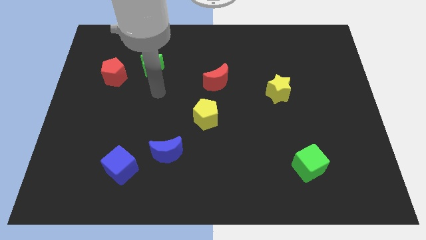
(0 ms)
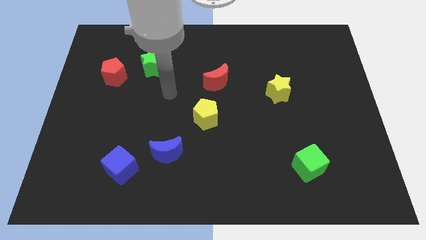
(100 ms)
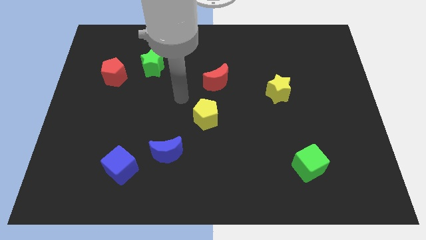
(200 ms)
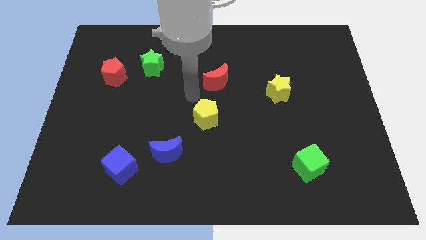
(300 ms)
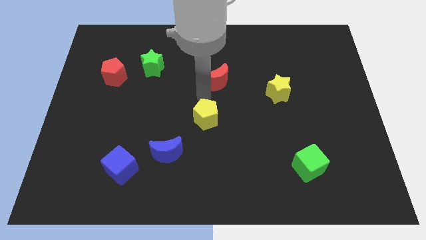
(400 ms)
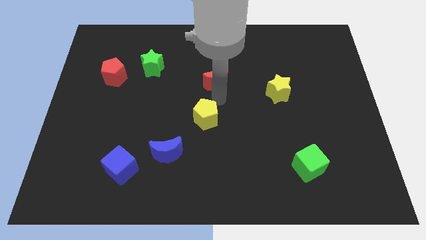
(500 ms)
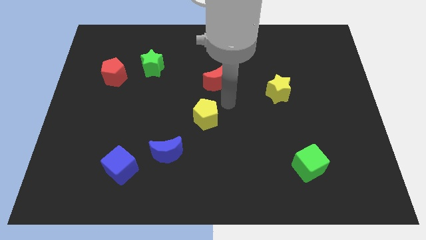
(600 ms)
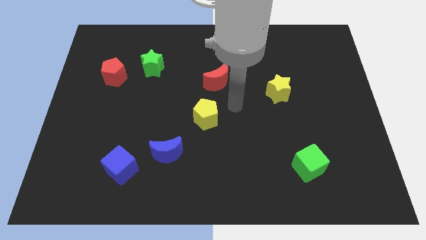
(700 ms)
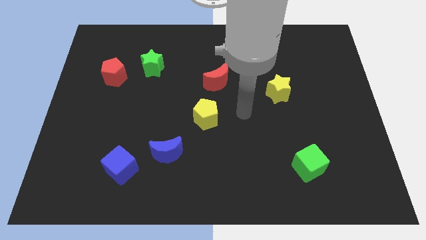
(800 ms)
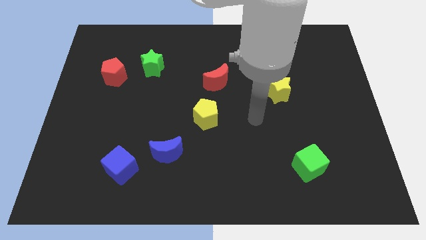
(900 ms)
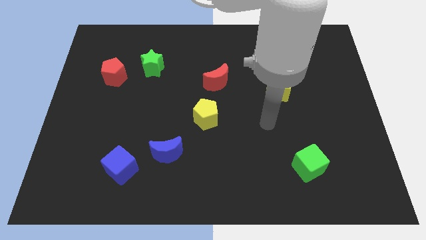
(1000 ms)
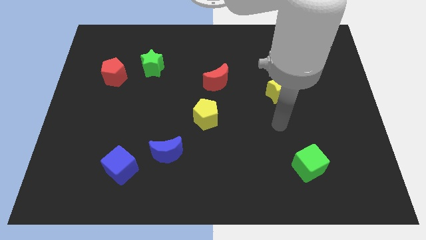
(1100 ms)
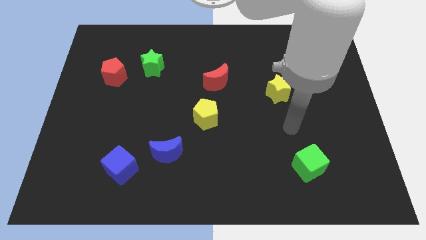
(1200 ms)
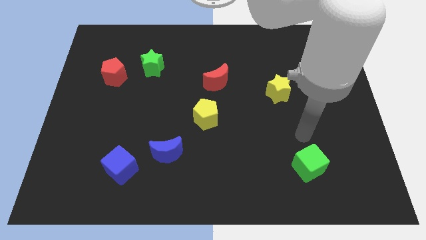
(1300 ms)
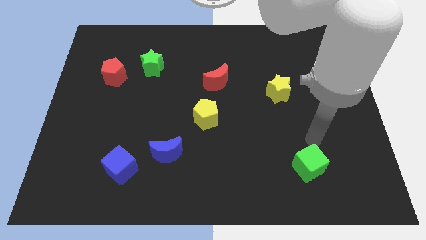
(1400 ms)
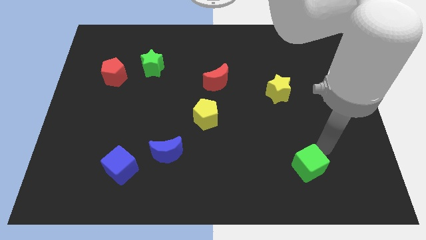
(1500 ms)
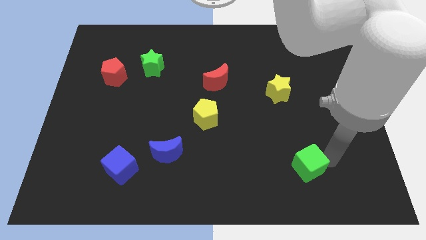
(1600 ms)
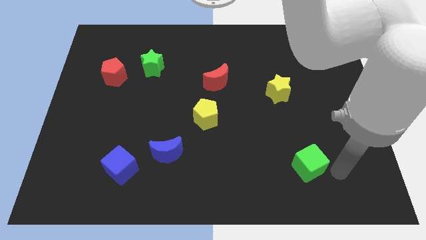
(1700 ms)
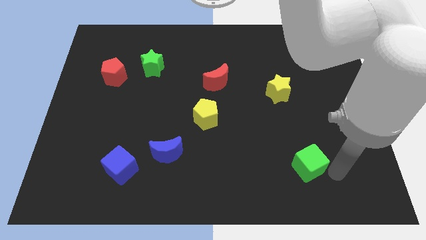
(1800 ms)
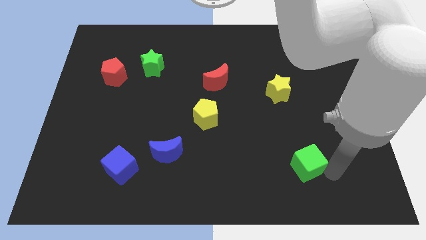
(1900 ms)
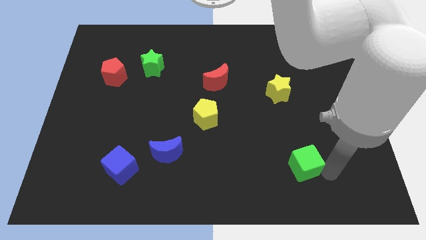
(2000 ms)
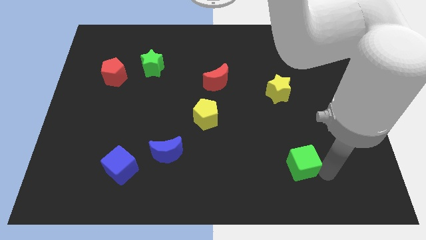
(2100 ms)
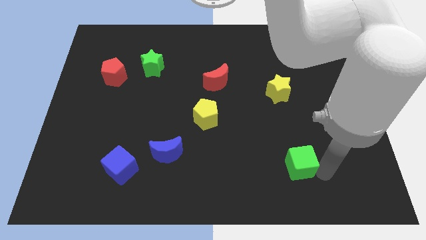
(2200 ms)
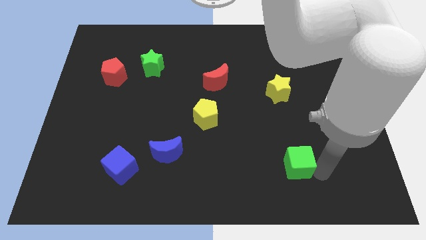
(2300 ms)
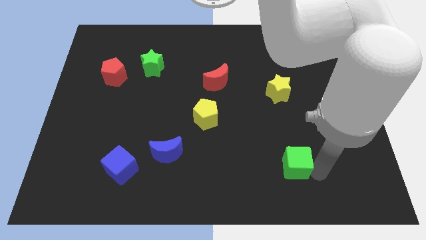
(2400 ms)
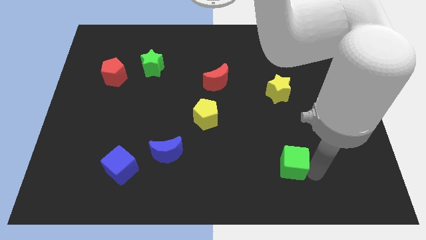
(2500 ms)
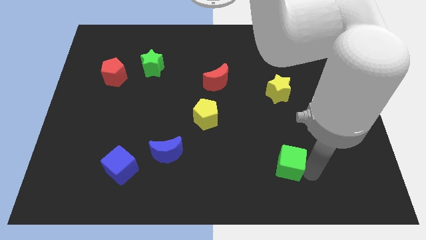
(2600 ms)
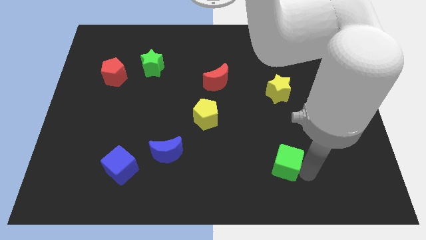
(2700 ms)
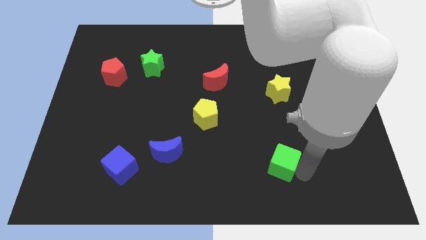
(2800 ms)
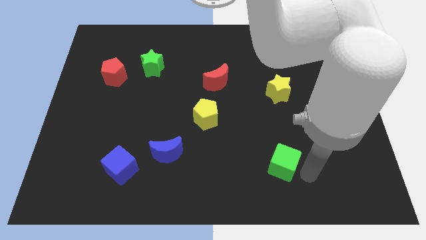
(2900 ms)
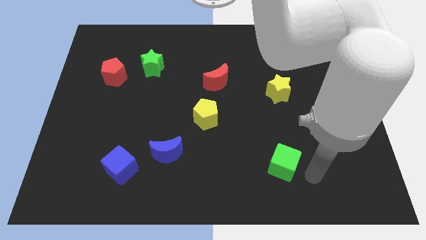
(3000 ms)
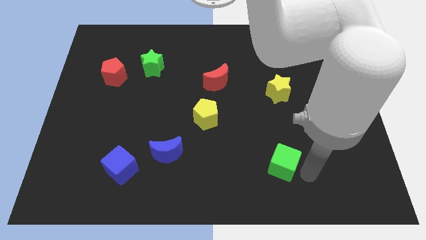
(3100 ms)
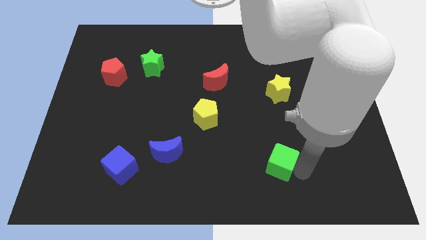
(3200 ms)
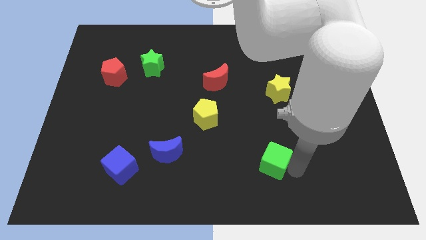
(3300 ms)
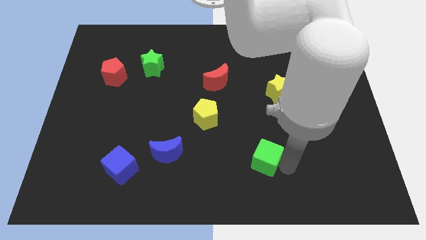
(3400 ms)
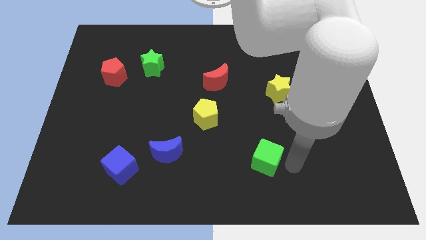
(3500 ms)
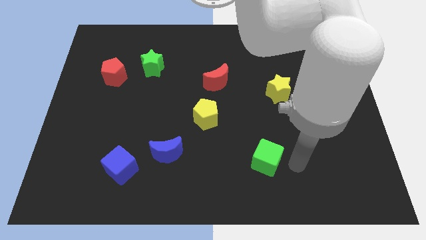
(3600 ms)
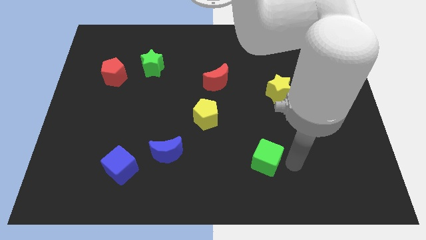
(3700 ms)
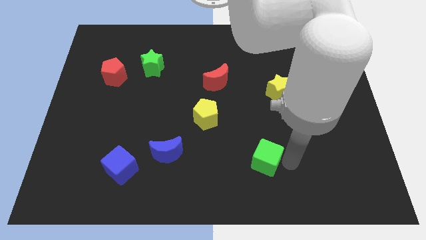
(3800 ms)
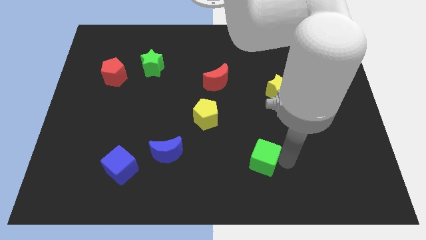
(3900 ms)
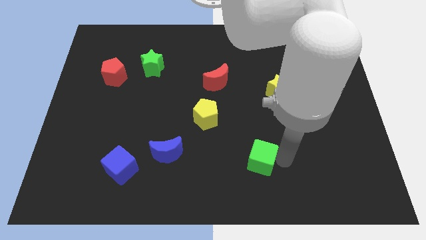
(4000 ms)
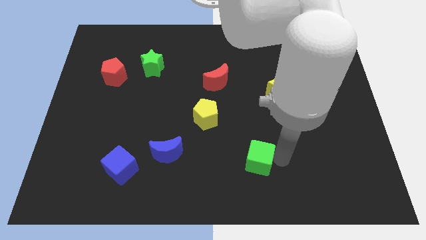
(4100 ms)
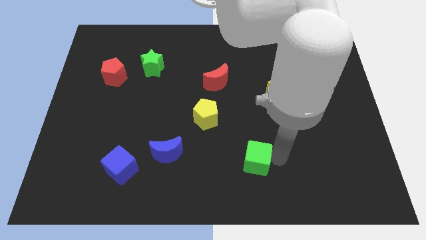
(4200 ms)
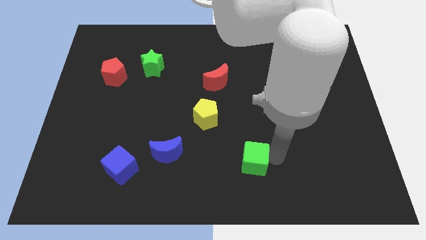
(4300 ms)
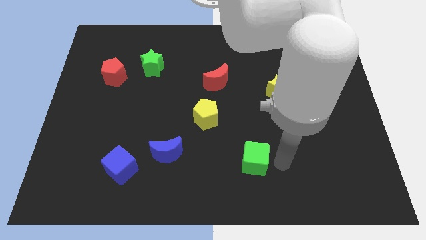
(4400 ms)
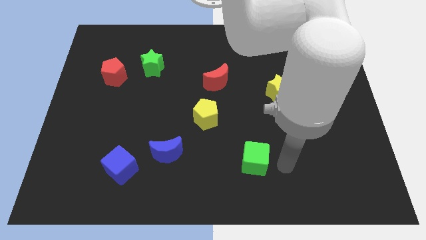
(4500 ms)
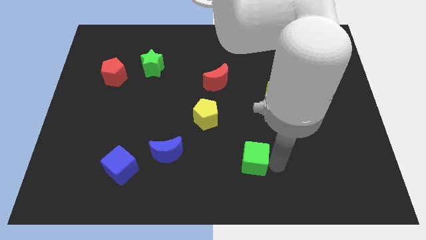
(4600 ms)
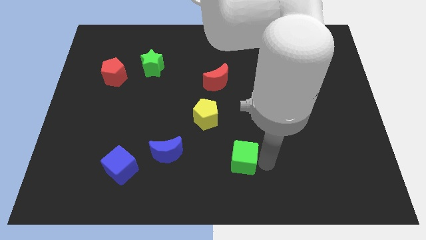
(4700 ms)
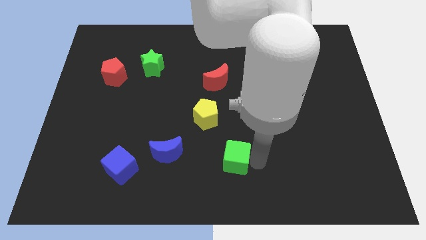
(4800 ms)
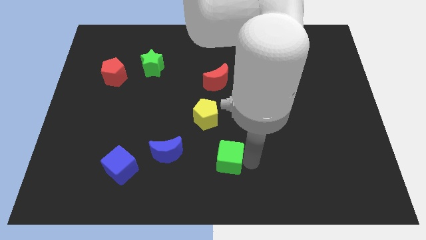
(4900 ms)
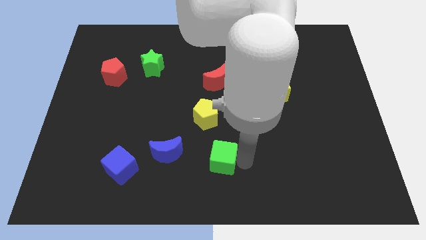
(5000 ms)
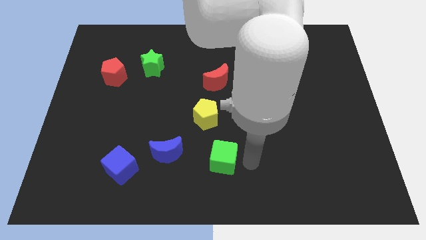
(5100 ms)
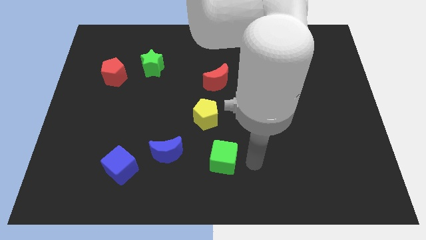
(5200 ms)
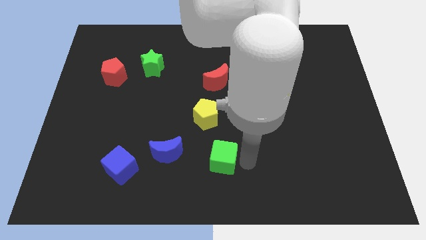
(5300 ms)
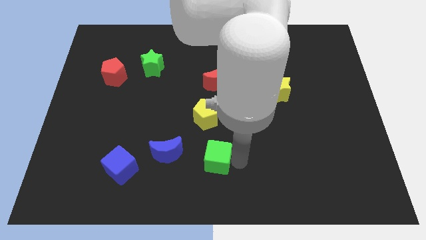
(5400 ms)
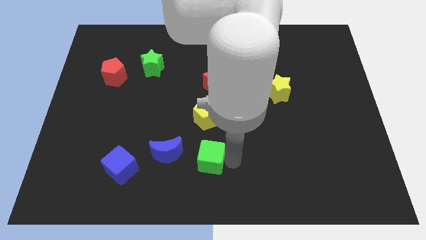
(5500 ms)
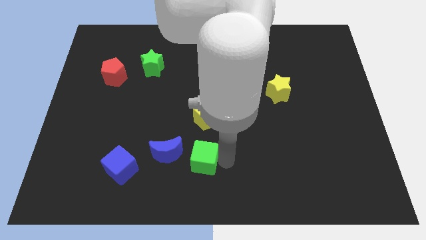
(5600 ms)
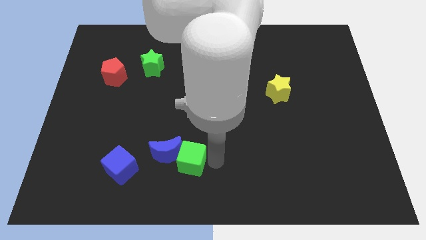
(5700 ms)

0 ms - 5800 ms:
slide the green cube close to the blue moon

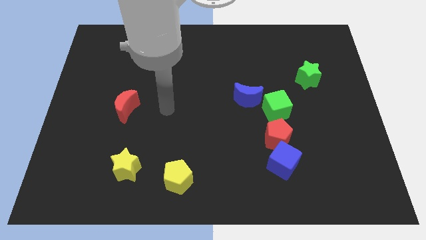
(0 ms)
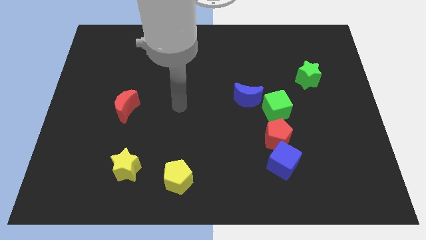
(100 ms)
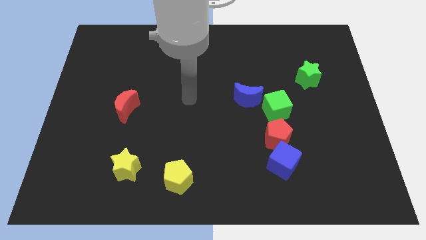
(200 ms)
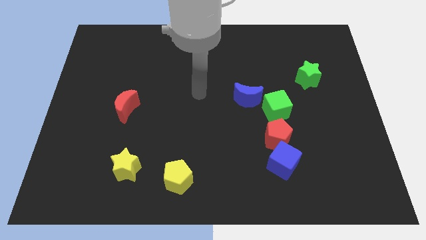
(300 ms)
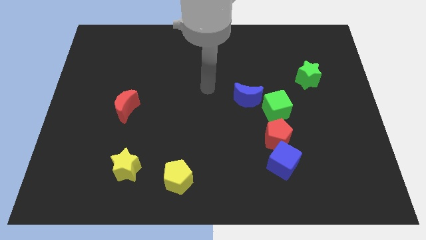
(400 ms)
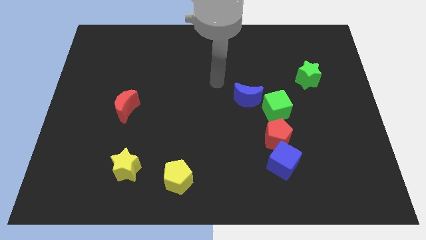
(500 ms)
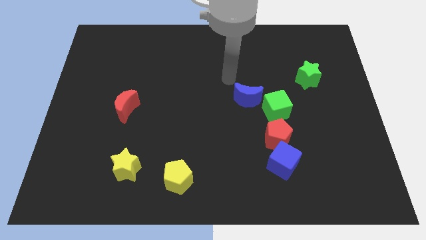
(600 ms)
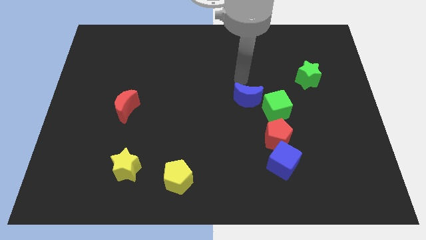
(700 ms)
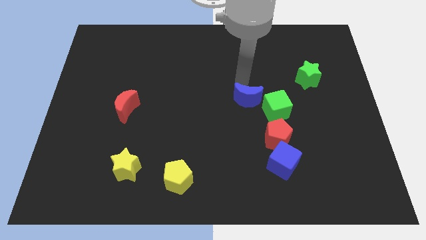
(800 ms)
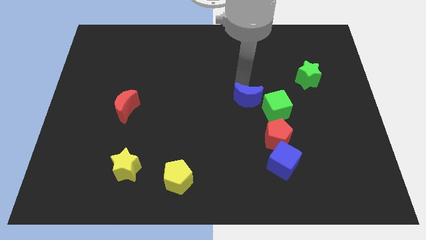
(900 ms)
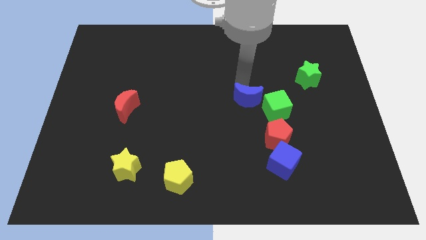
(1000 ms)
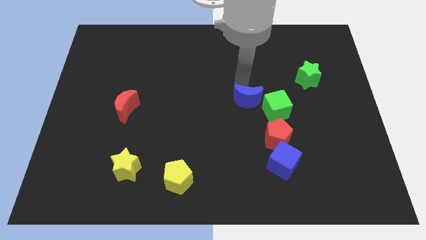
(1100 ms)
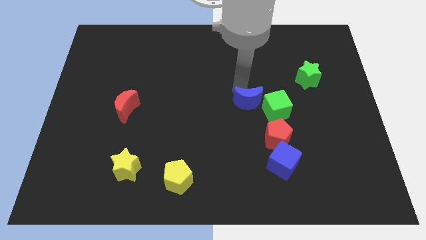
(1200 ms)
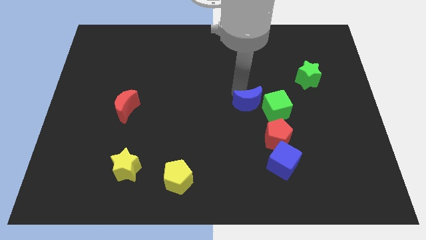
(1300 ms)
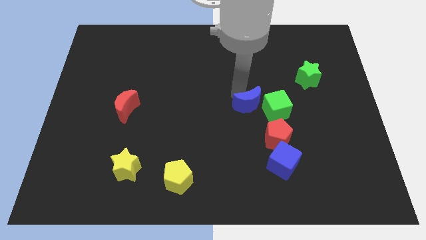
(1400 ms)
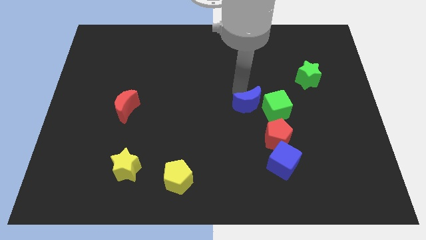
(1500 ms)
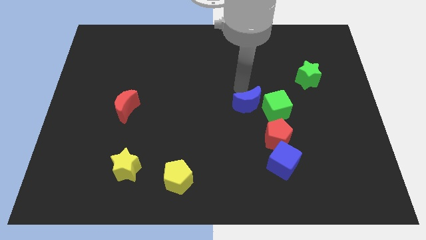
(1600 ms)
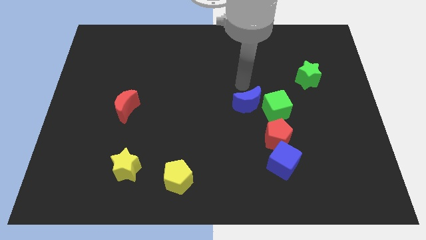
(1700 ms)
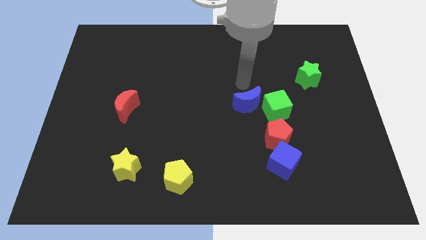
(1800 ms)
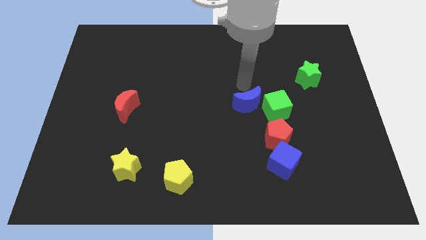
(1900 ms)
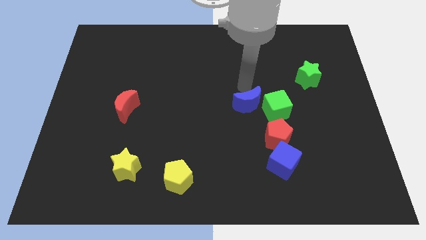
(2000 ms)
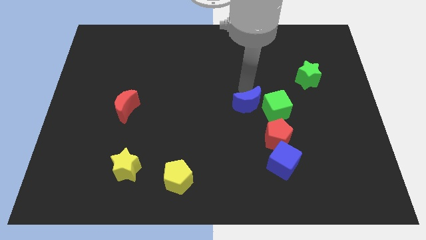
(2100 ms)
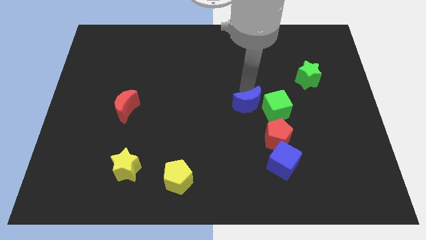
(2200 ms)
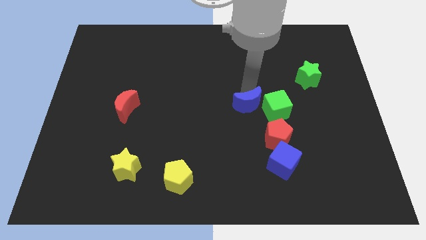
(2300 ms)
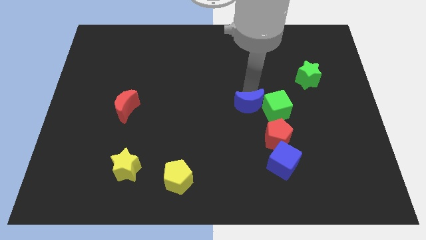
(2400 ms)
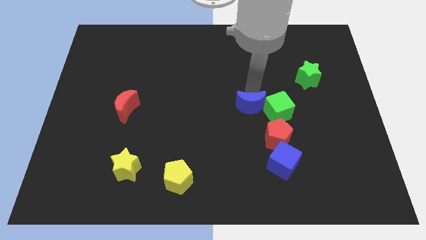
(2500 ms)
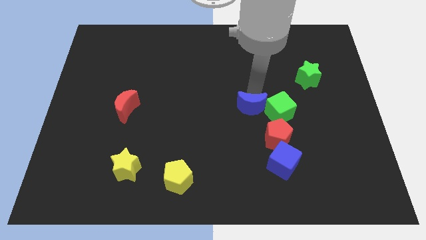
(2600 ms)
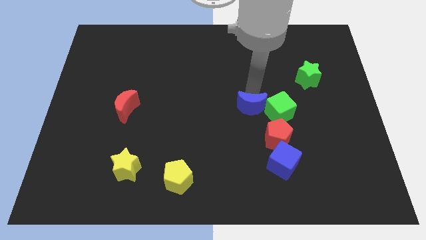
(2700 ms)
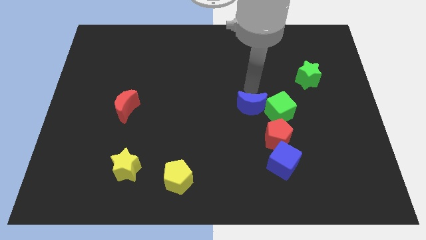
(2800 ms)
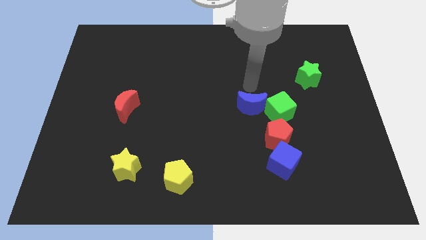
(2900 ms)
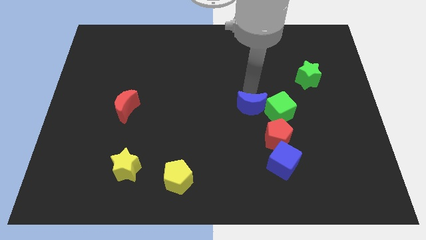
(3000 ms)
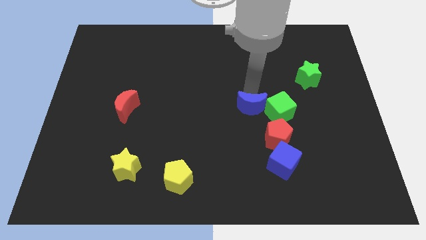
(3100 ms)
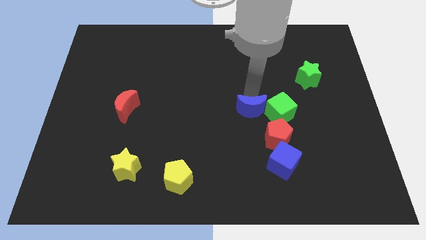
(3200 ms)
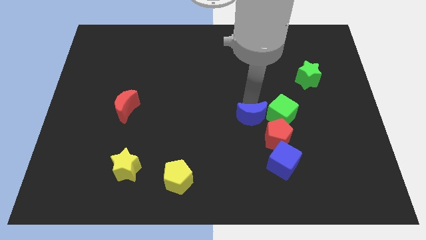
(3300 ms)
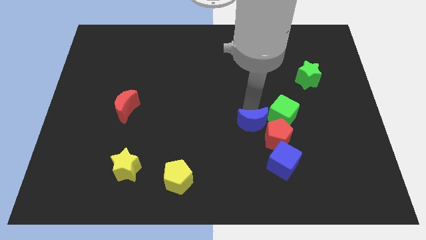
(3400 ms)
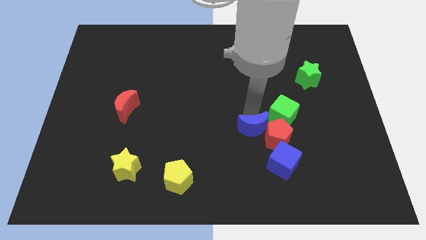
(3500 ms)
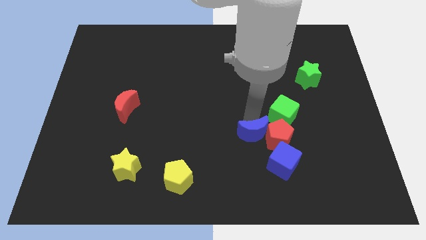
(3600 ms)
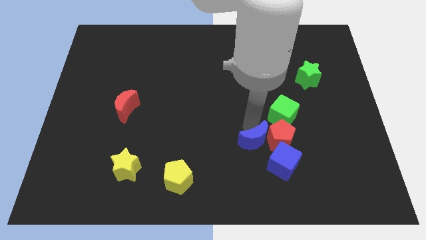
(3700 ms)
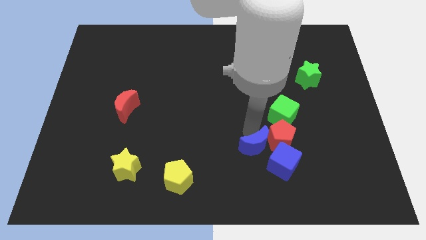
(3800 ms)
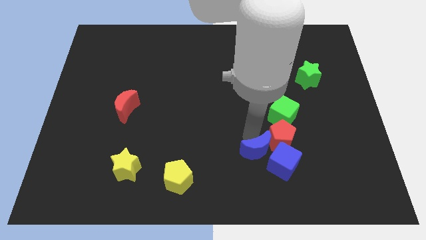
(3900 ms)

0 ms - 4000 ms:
put the blue moon towards the blue cube
